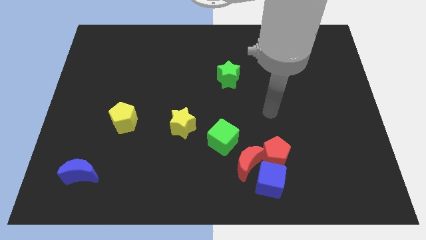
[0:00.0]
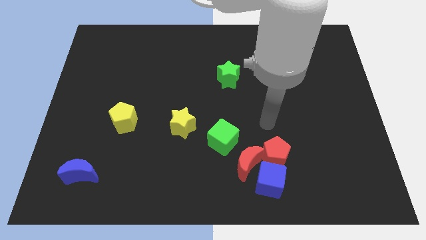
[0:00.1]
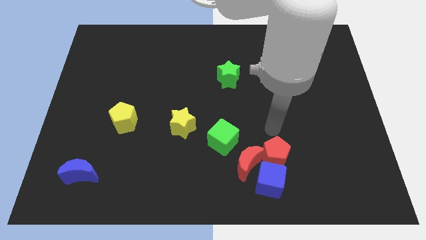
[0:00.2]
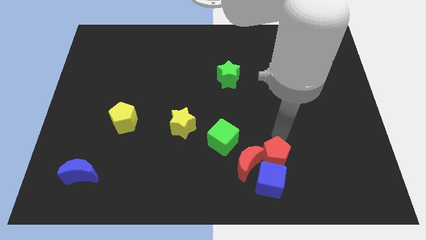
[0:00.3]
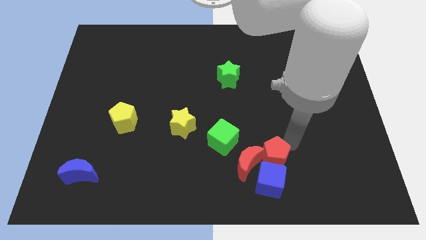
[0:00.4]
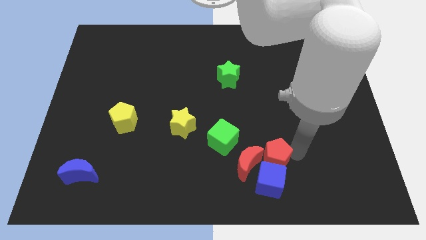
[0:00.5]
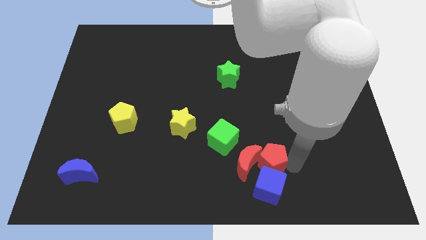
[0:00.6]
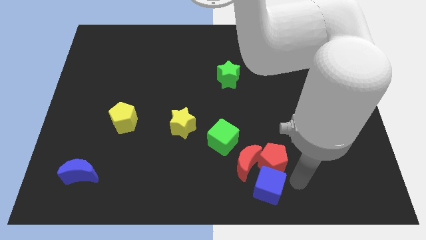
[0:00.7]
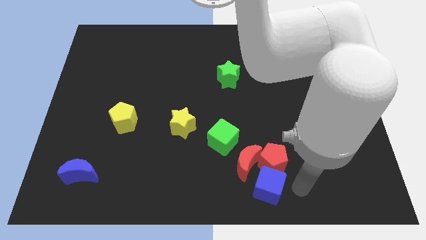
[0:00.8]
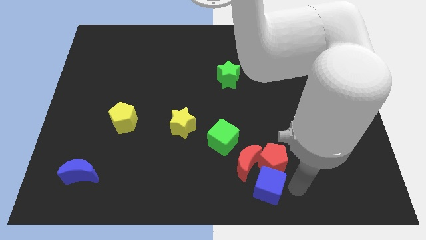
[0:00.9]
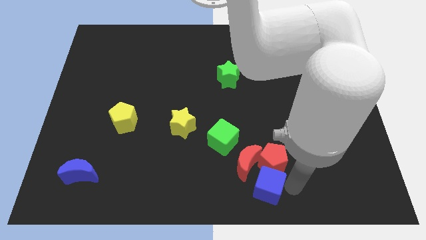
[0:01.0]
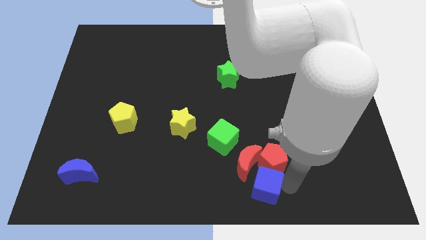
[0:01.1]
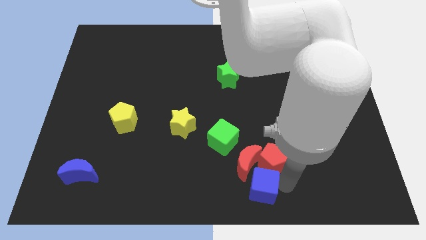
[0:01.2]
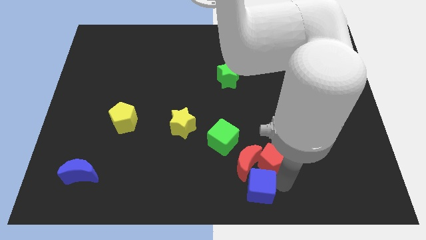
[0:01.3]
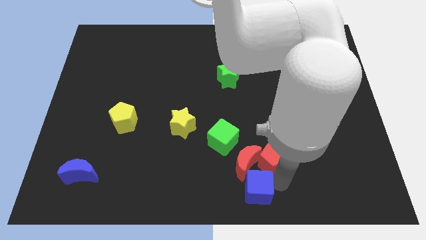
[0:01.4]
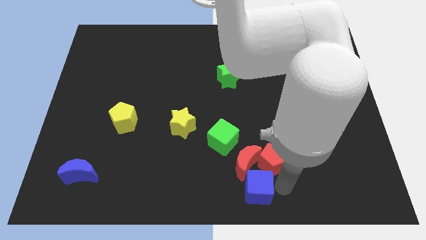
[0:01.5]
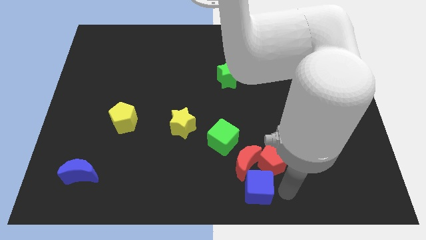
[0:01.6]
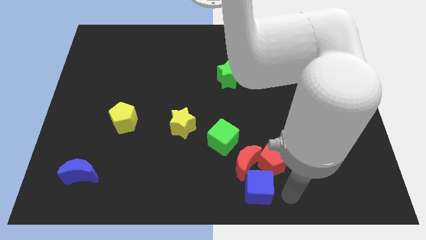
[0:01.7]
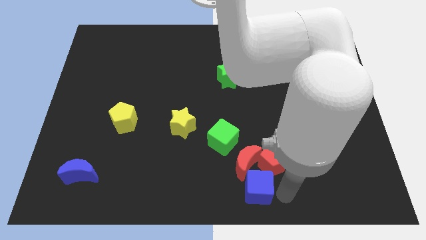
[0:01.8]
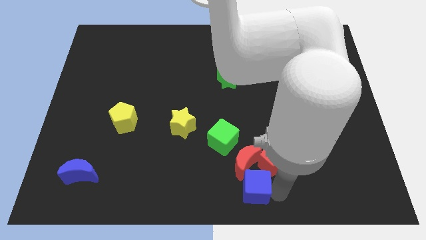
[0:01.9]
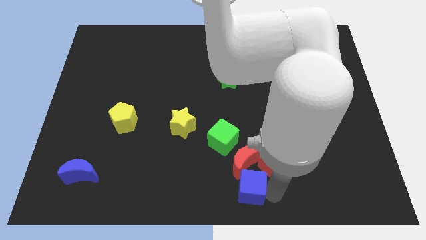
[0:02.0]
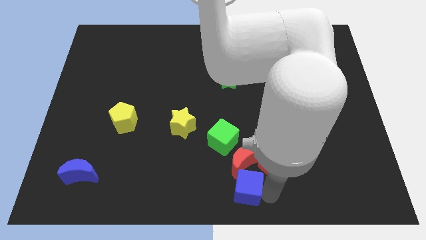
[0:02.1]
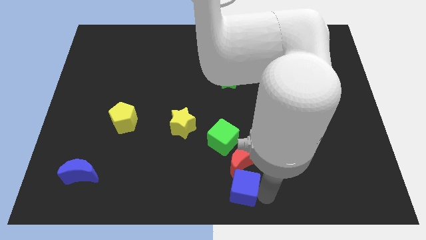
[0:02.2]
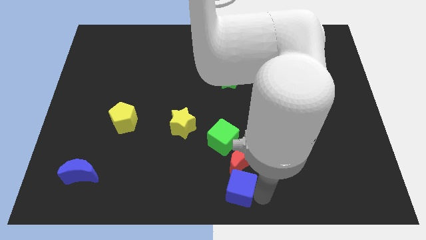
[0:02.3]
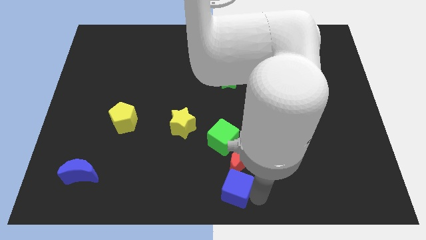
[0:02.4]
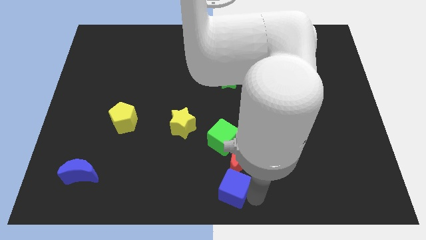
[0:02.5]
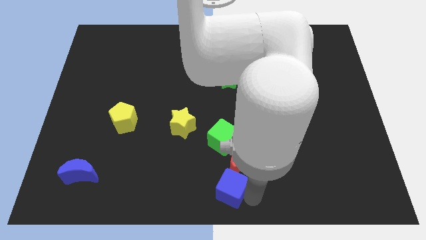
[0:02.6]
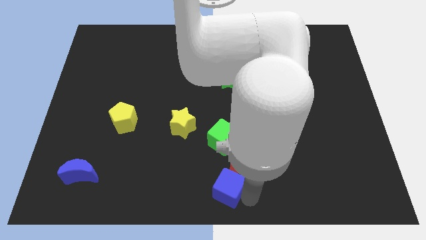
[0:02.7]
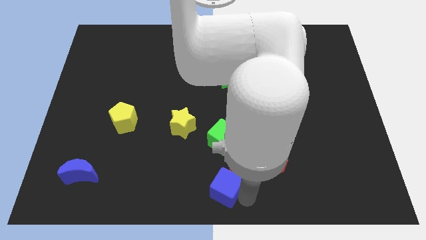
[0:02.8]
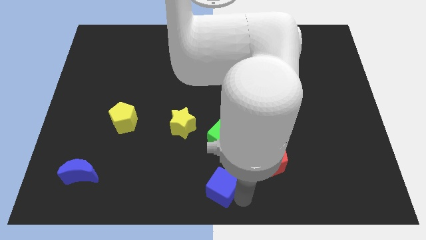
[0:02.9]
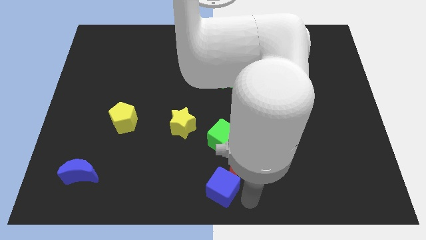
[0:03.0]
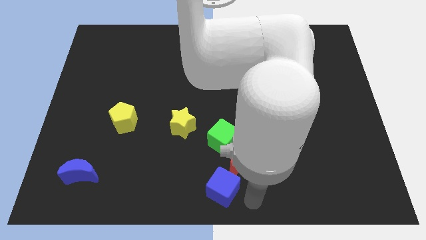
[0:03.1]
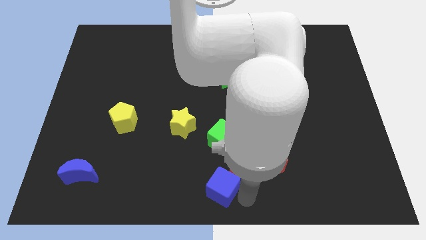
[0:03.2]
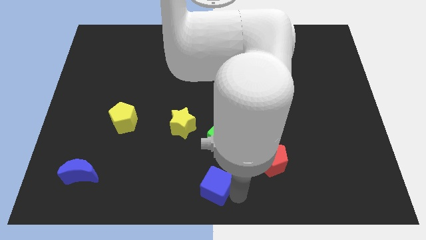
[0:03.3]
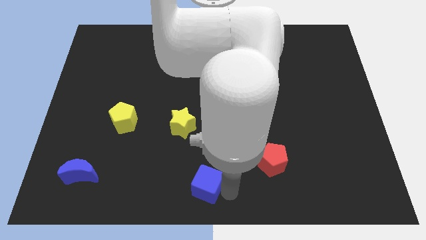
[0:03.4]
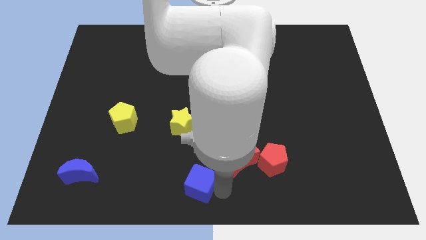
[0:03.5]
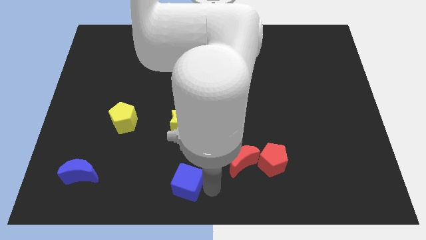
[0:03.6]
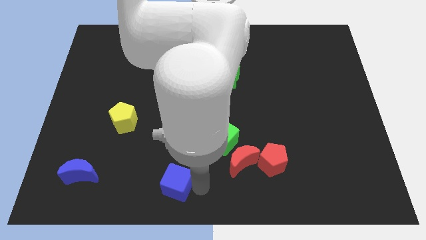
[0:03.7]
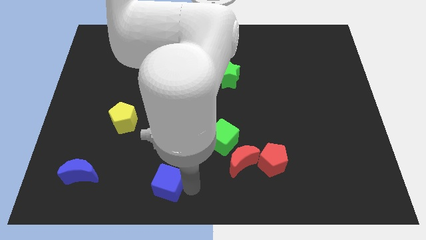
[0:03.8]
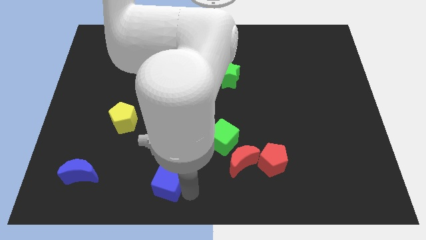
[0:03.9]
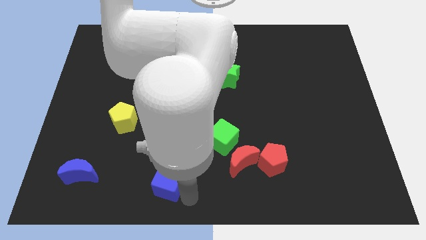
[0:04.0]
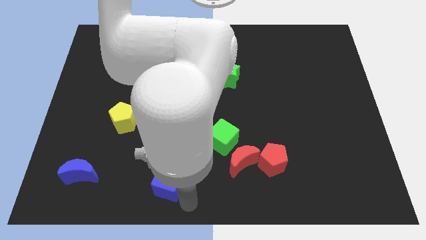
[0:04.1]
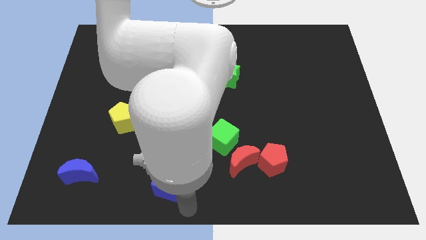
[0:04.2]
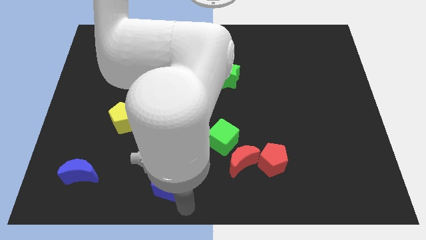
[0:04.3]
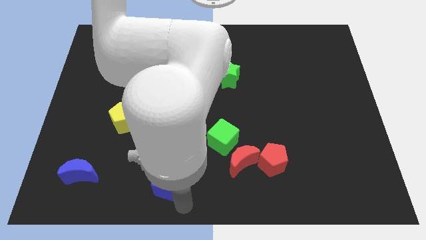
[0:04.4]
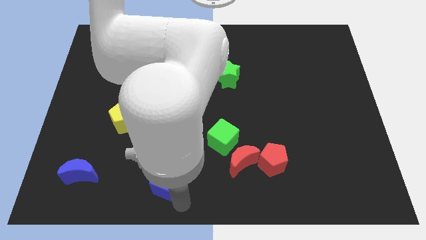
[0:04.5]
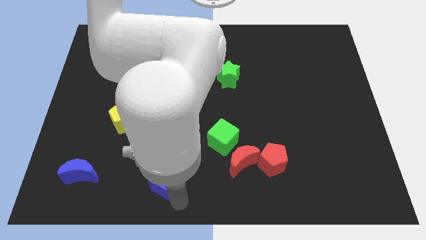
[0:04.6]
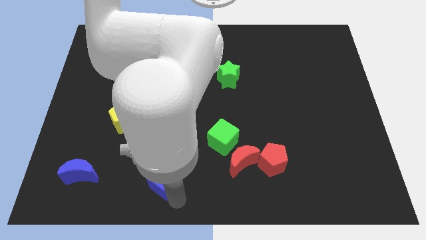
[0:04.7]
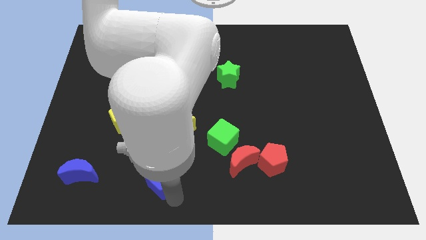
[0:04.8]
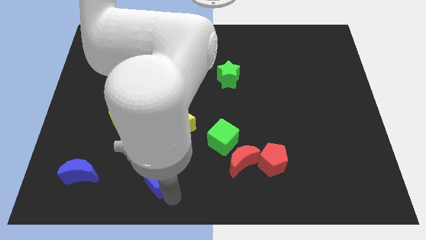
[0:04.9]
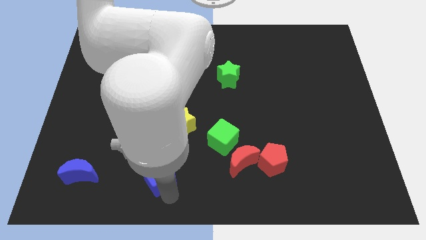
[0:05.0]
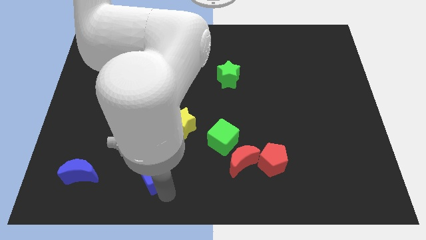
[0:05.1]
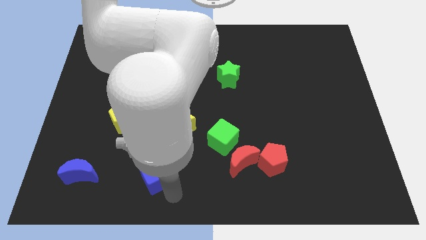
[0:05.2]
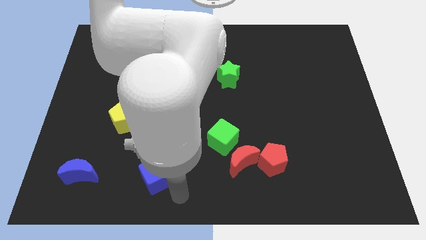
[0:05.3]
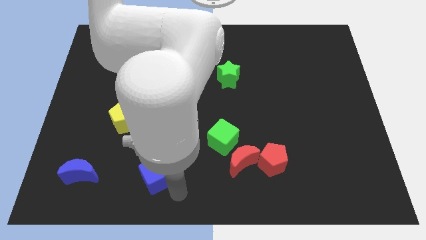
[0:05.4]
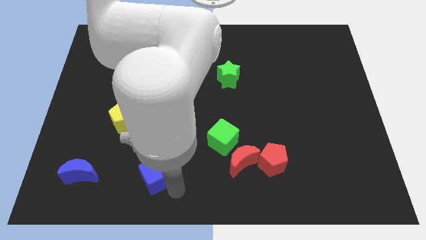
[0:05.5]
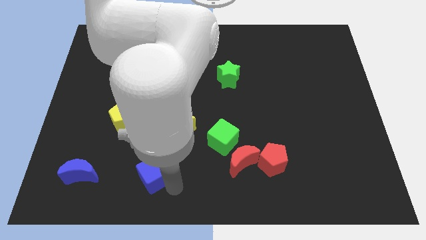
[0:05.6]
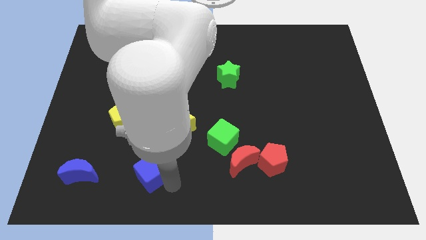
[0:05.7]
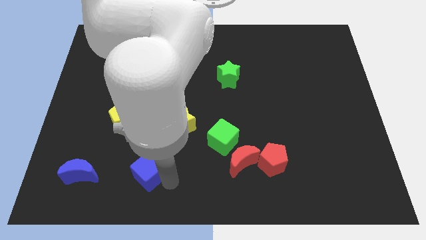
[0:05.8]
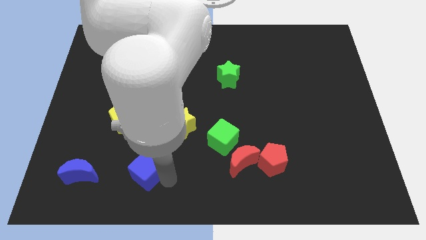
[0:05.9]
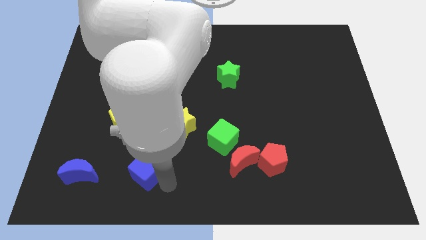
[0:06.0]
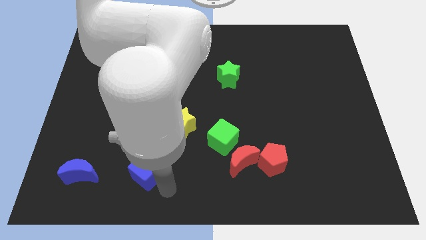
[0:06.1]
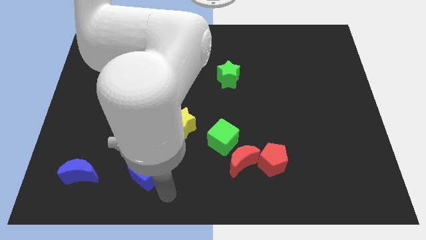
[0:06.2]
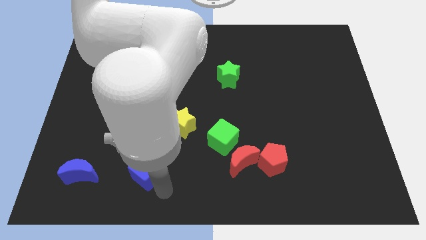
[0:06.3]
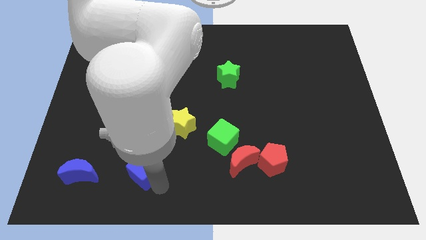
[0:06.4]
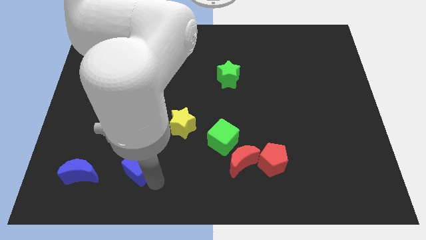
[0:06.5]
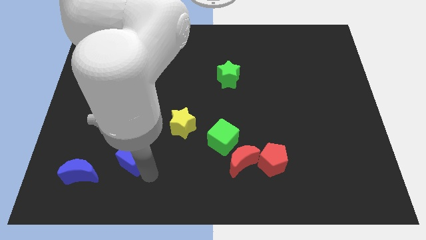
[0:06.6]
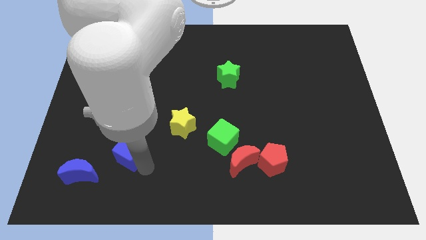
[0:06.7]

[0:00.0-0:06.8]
slide the blue cube diagonally up and to the right of the blue moon
